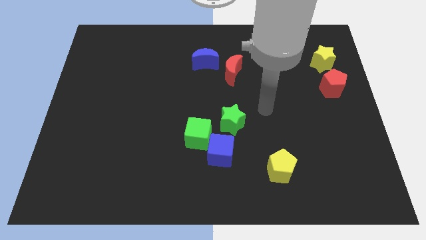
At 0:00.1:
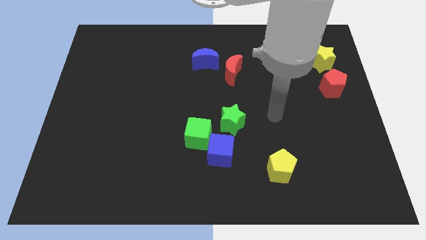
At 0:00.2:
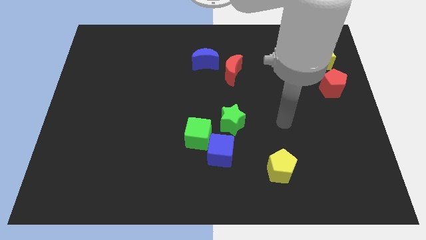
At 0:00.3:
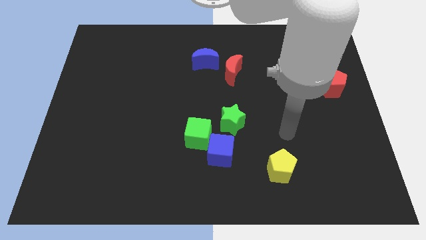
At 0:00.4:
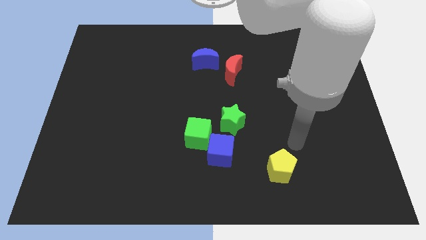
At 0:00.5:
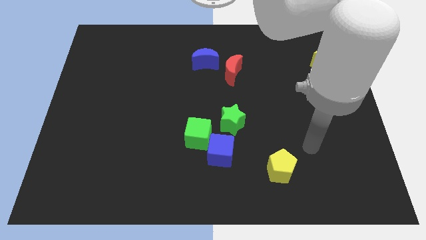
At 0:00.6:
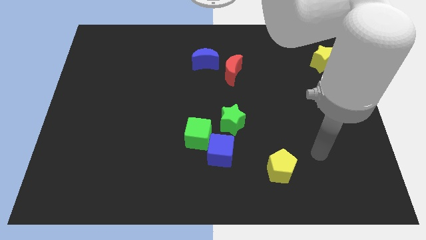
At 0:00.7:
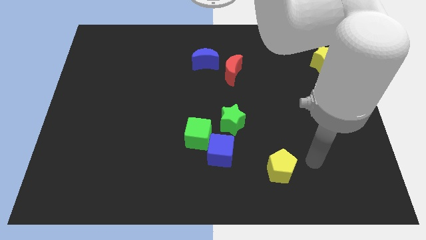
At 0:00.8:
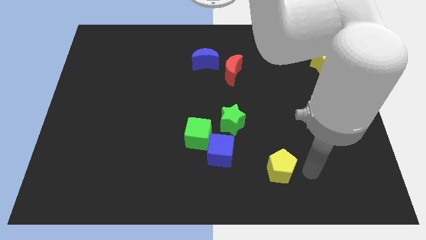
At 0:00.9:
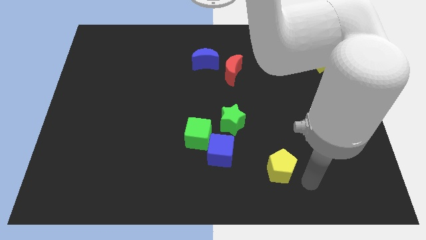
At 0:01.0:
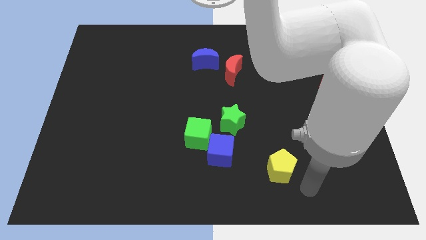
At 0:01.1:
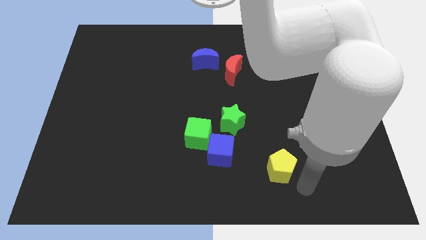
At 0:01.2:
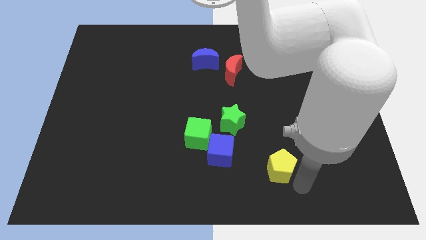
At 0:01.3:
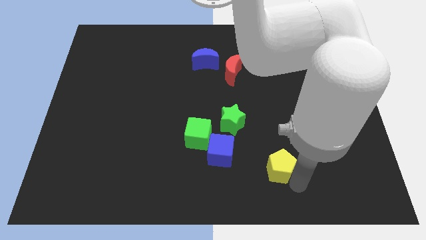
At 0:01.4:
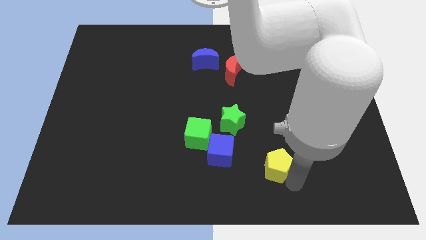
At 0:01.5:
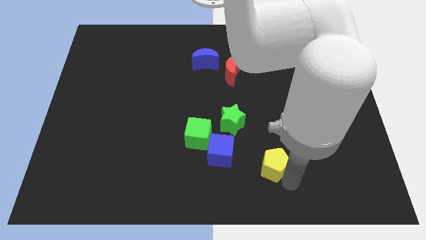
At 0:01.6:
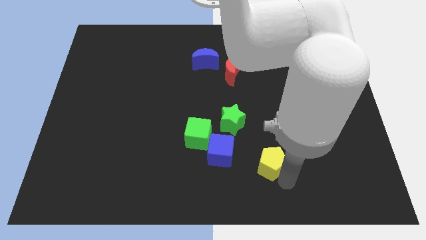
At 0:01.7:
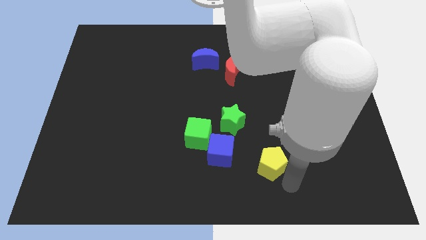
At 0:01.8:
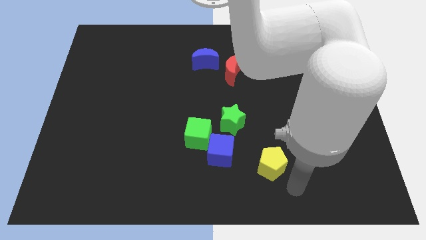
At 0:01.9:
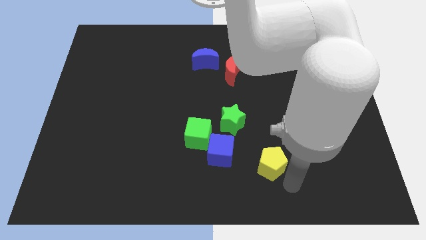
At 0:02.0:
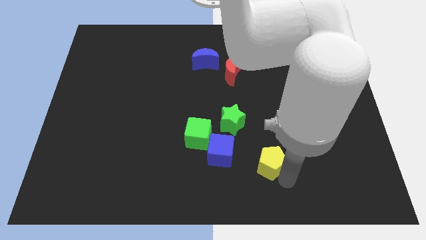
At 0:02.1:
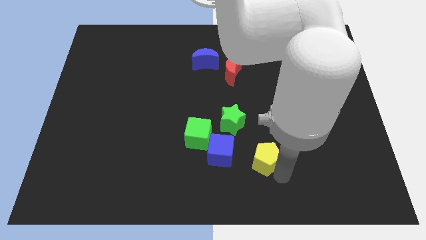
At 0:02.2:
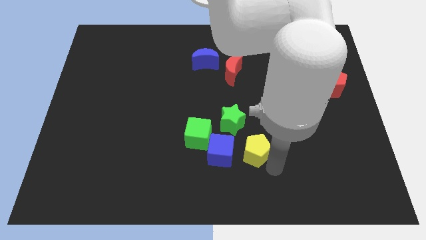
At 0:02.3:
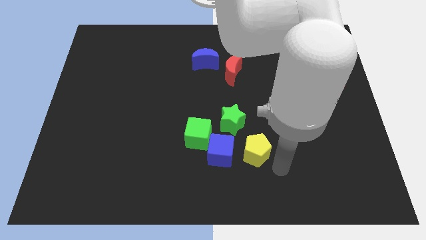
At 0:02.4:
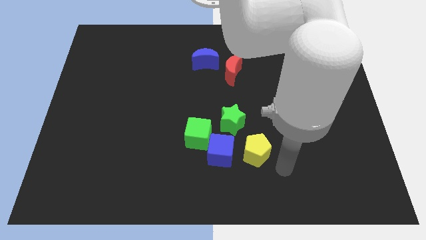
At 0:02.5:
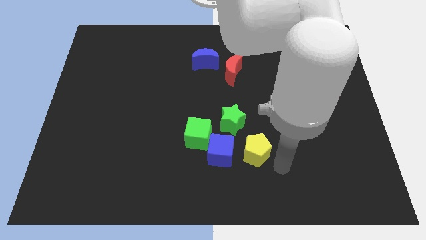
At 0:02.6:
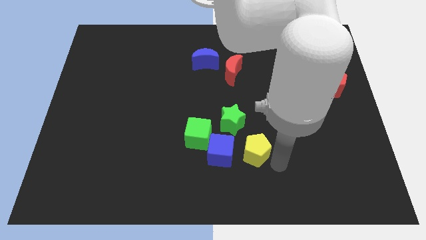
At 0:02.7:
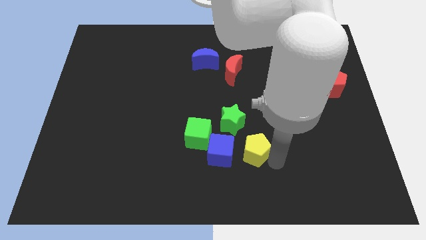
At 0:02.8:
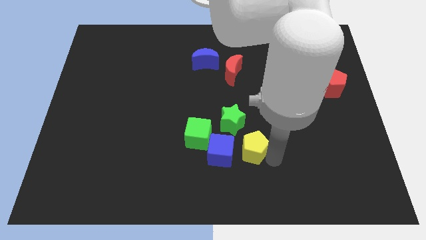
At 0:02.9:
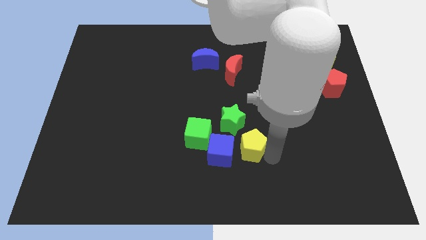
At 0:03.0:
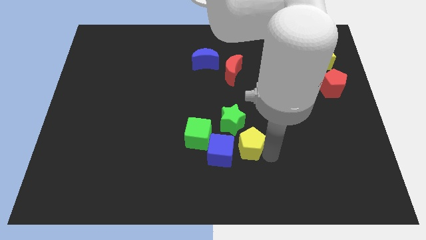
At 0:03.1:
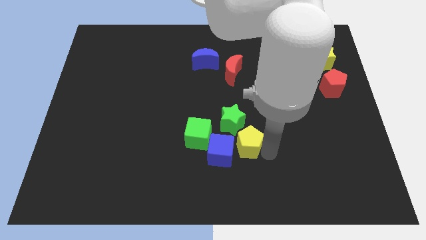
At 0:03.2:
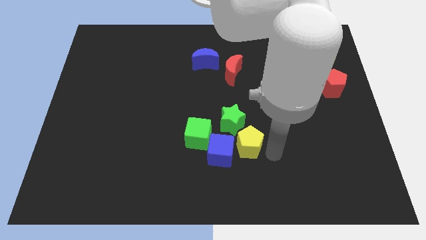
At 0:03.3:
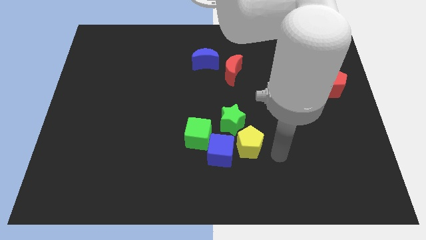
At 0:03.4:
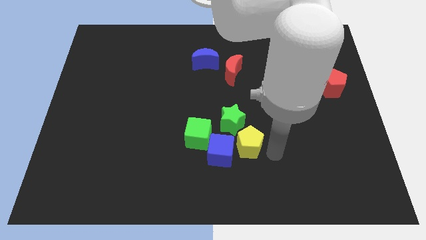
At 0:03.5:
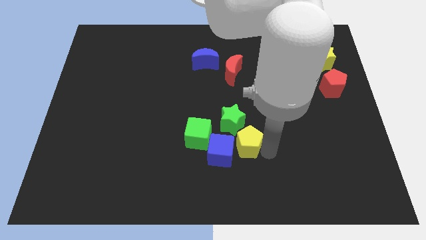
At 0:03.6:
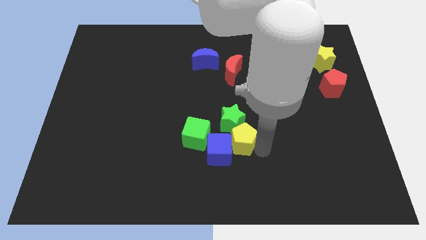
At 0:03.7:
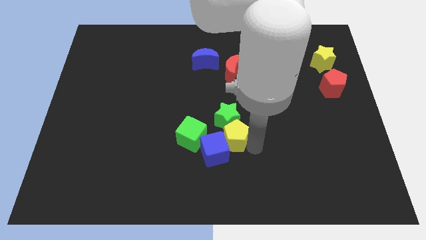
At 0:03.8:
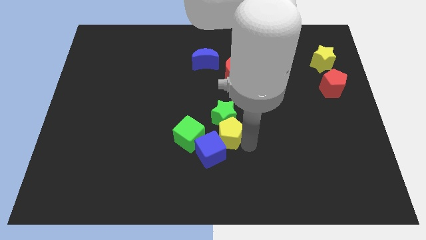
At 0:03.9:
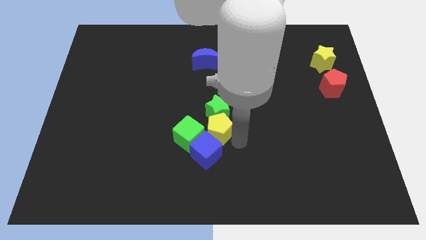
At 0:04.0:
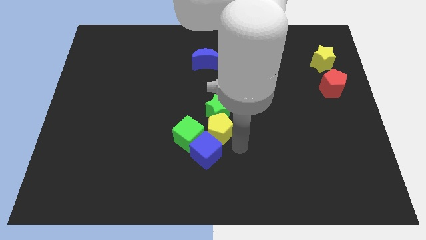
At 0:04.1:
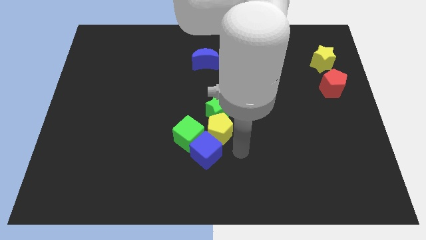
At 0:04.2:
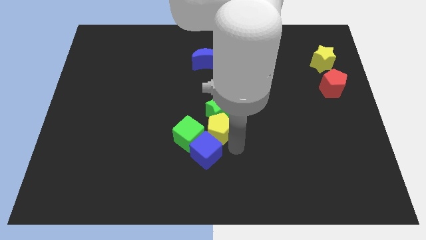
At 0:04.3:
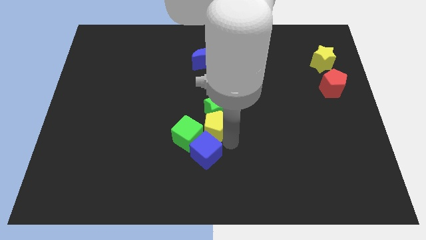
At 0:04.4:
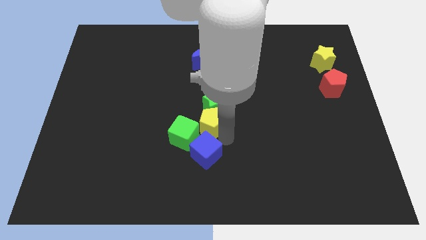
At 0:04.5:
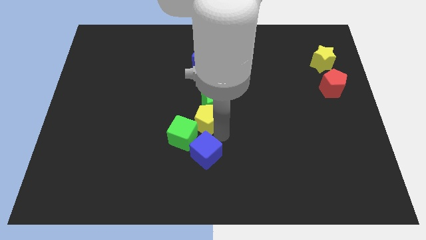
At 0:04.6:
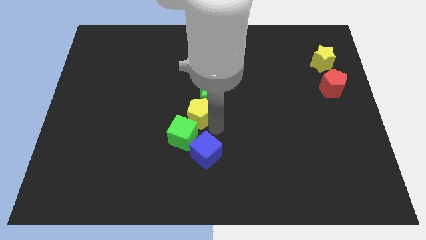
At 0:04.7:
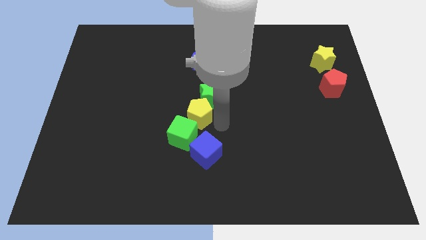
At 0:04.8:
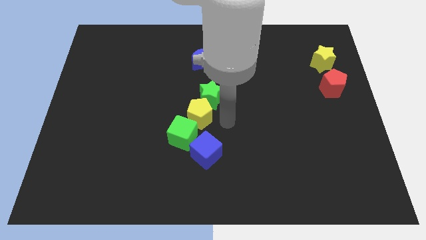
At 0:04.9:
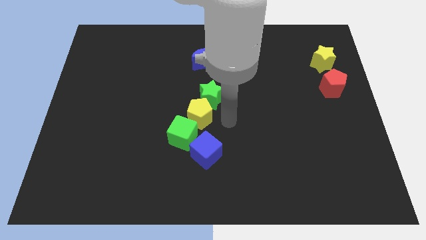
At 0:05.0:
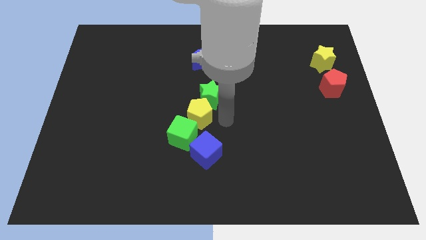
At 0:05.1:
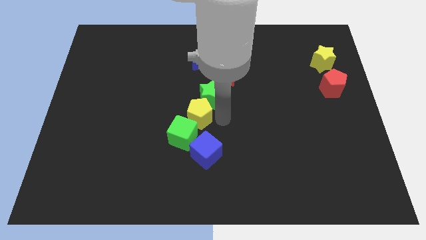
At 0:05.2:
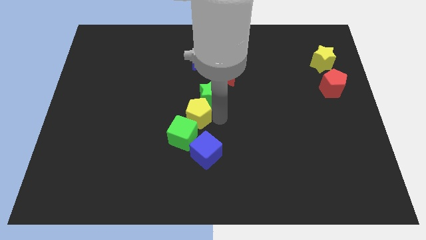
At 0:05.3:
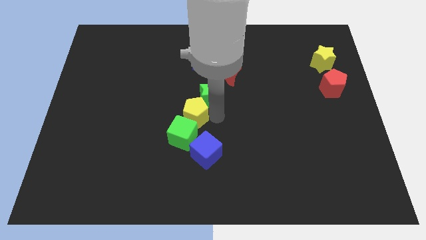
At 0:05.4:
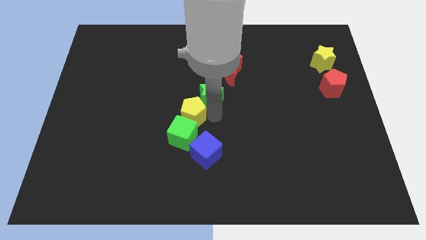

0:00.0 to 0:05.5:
put the yellow pentagon to the top left side of the blue cube

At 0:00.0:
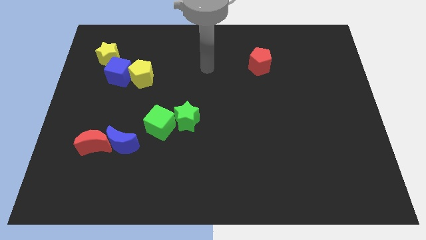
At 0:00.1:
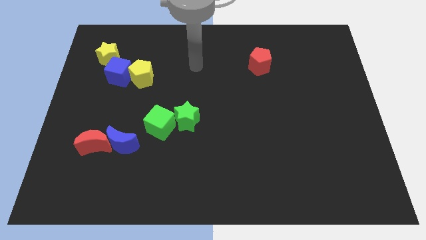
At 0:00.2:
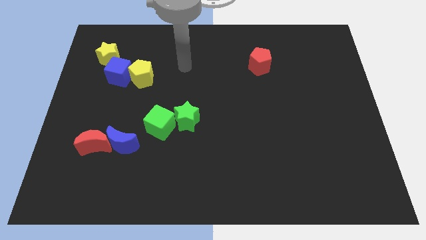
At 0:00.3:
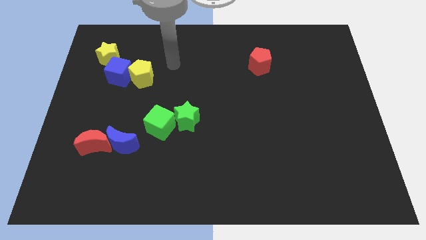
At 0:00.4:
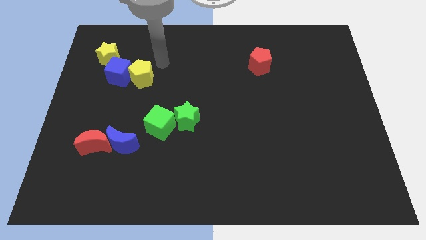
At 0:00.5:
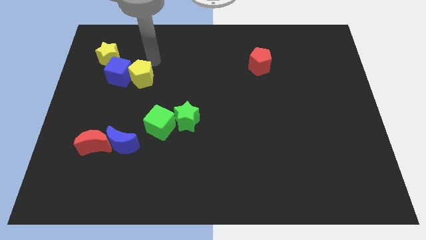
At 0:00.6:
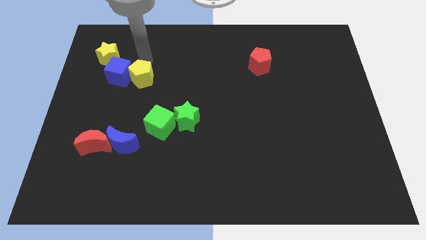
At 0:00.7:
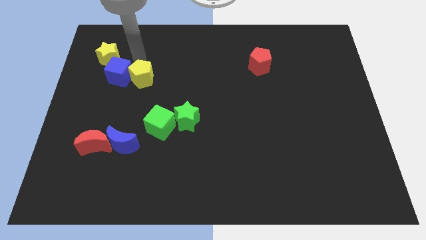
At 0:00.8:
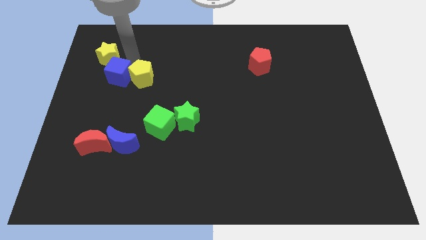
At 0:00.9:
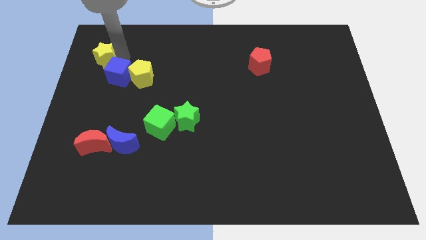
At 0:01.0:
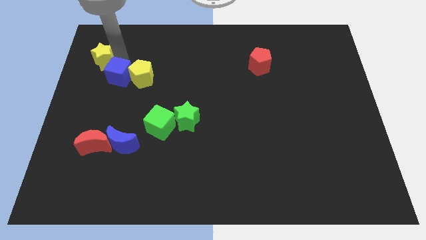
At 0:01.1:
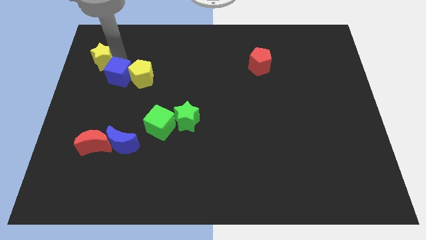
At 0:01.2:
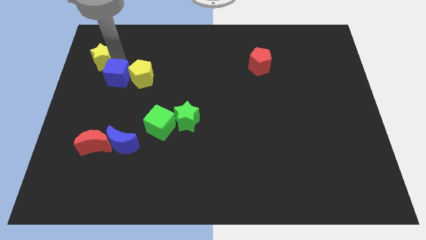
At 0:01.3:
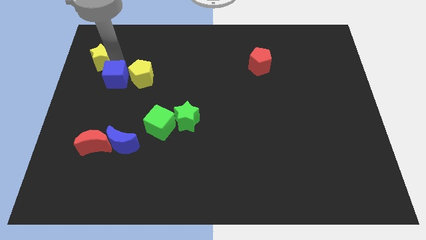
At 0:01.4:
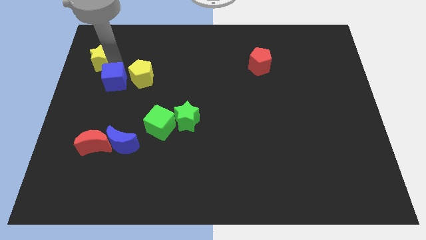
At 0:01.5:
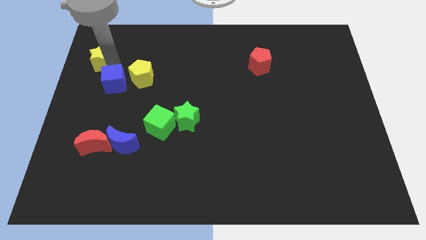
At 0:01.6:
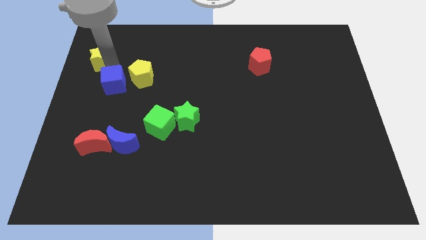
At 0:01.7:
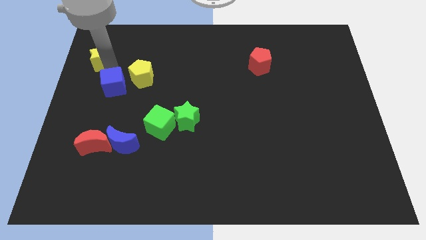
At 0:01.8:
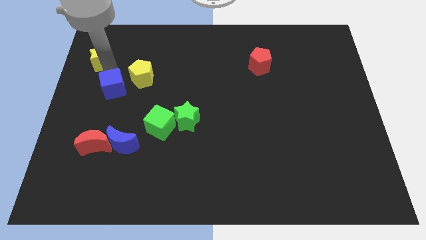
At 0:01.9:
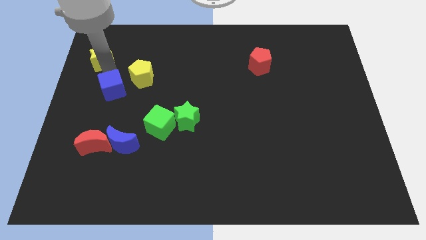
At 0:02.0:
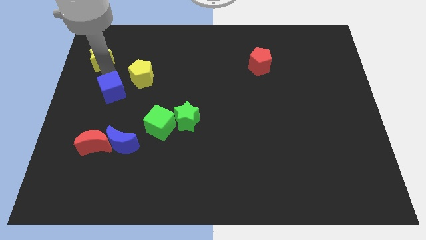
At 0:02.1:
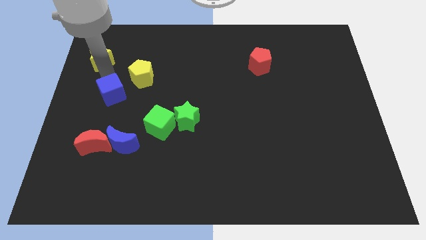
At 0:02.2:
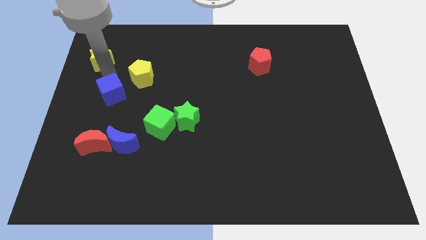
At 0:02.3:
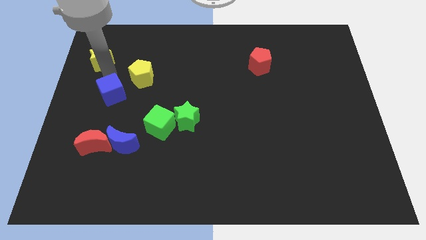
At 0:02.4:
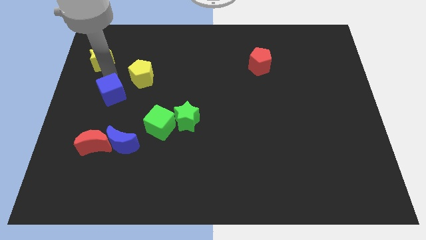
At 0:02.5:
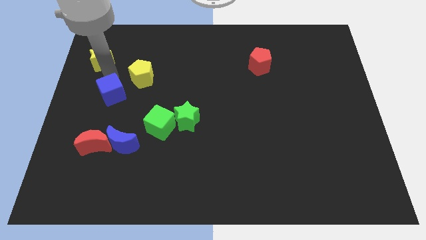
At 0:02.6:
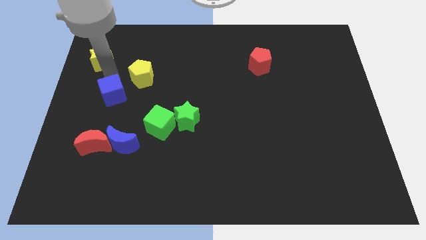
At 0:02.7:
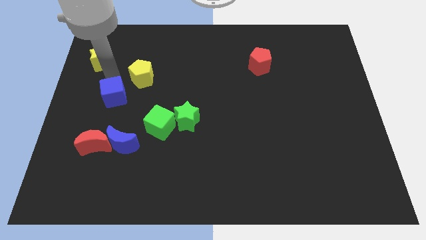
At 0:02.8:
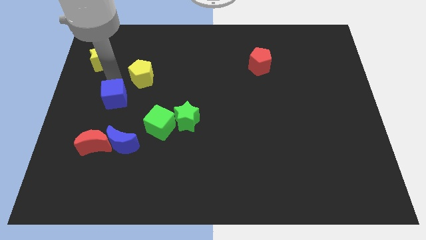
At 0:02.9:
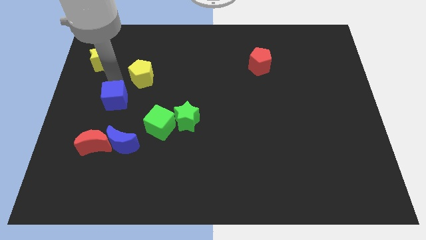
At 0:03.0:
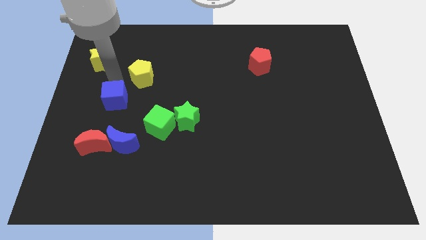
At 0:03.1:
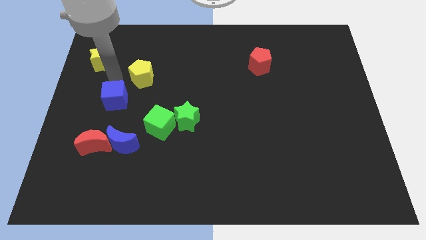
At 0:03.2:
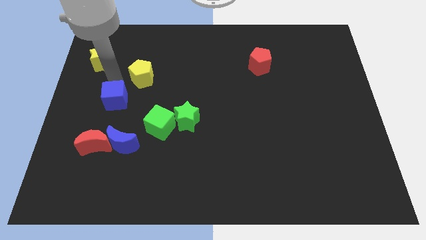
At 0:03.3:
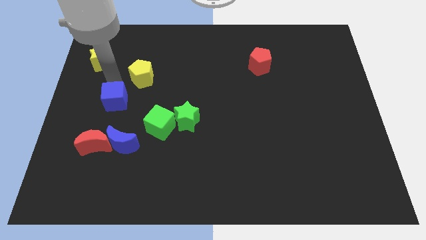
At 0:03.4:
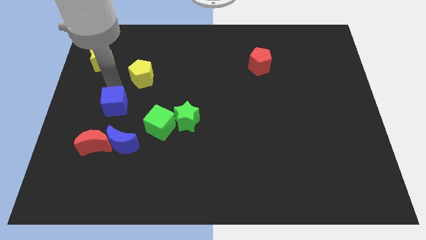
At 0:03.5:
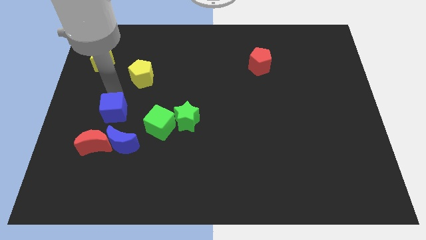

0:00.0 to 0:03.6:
move the blue cube to the left of the green cube
